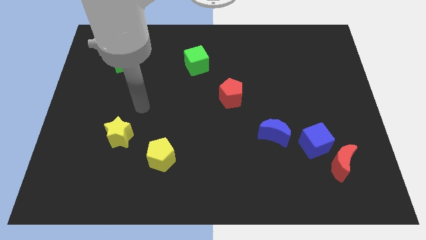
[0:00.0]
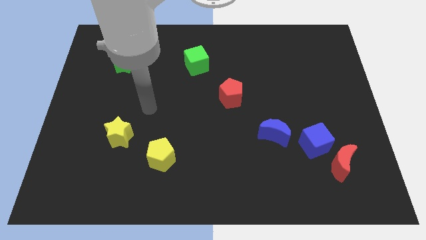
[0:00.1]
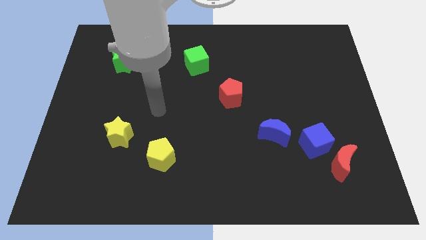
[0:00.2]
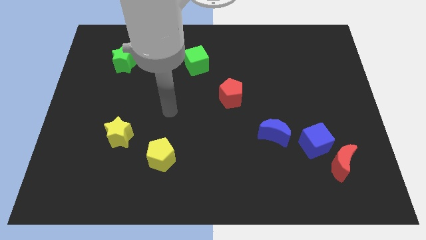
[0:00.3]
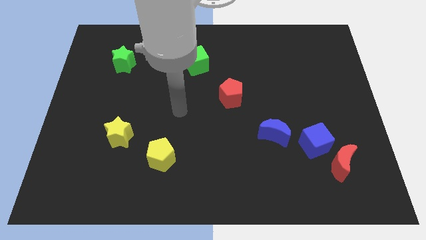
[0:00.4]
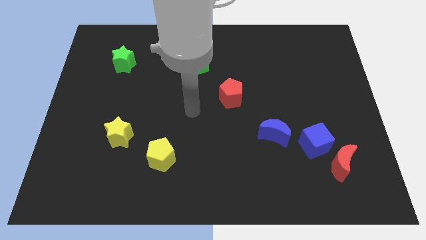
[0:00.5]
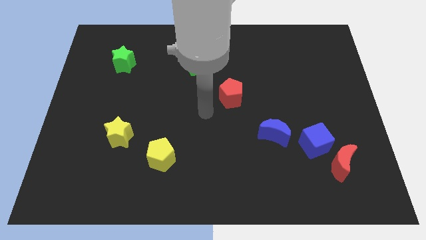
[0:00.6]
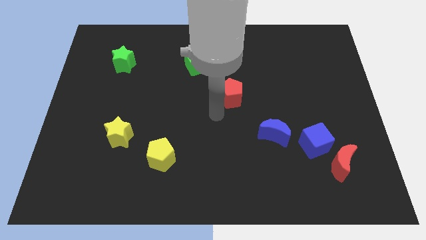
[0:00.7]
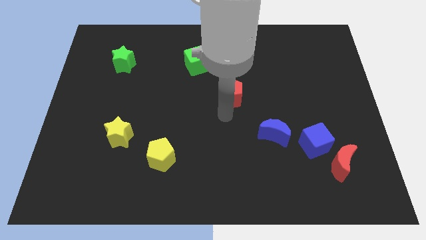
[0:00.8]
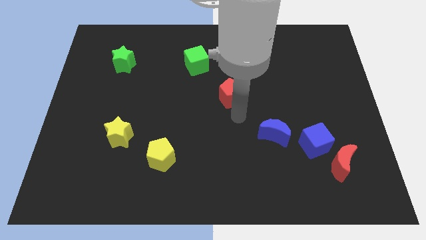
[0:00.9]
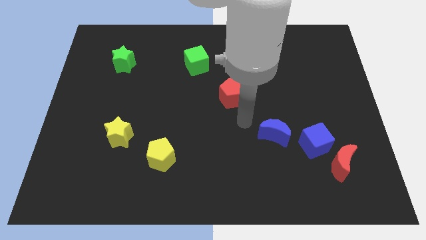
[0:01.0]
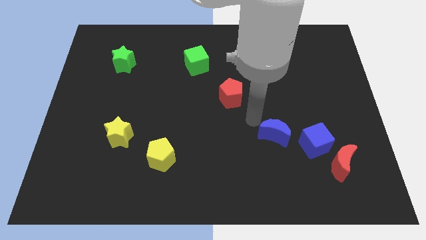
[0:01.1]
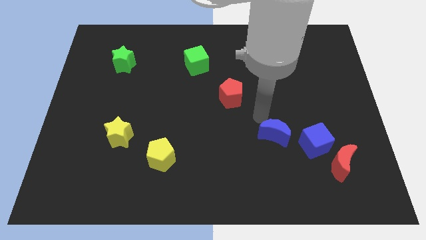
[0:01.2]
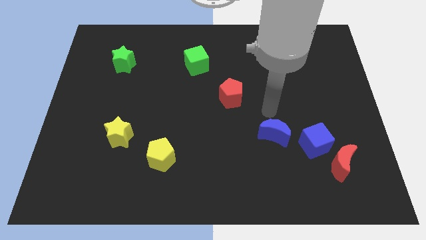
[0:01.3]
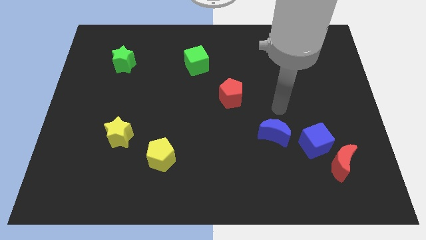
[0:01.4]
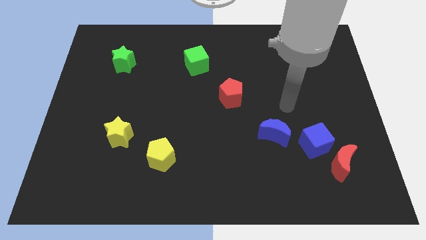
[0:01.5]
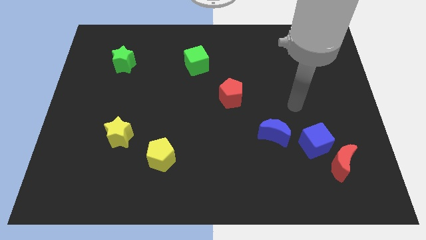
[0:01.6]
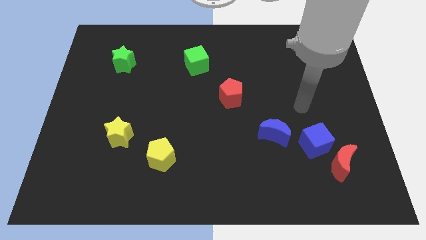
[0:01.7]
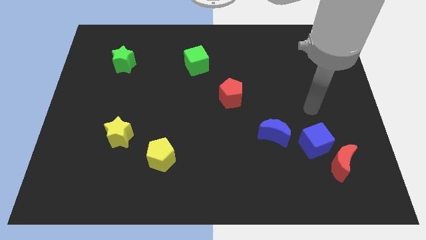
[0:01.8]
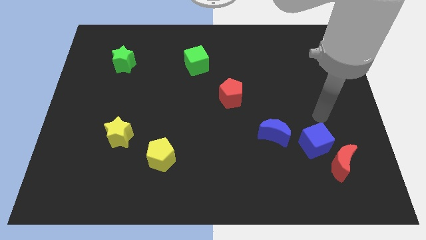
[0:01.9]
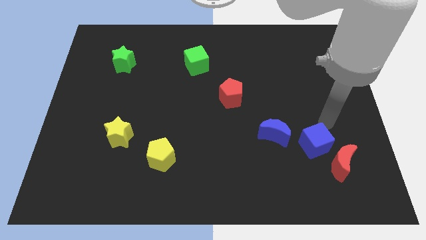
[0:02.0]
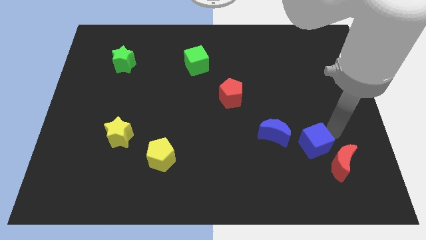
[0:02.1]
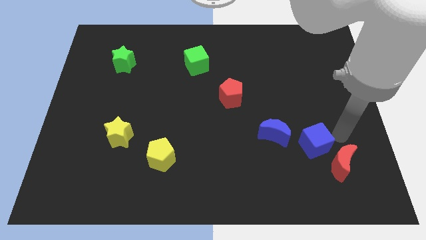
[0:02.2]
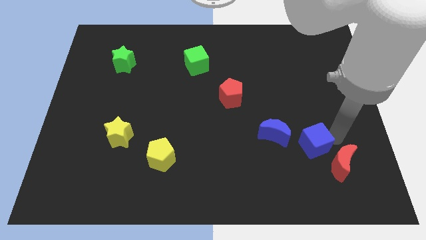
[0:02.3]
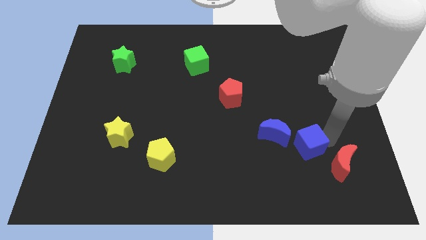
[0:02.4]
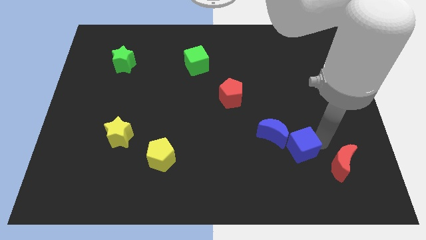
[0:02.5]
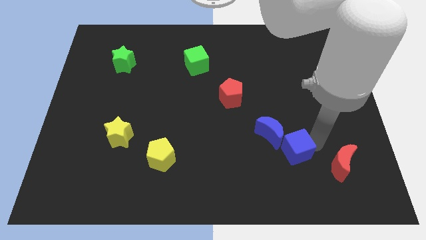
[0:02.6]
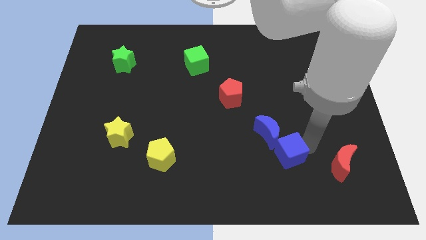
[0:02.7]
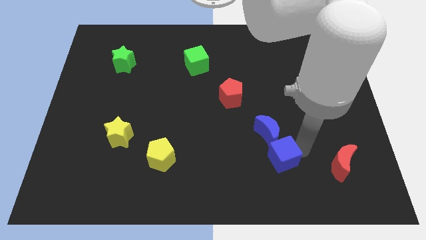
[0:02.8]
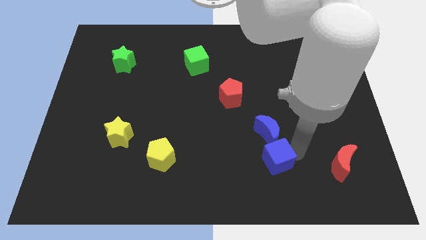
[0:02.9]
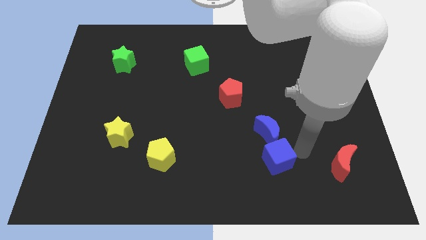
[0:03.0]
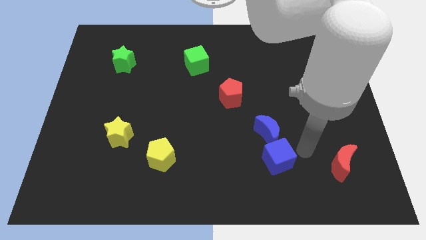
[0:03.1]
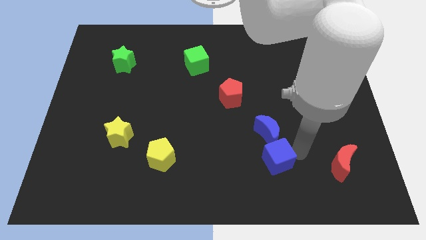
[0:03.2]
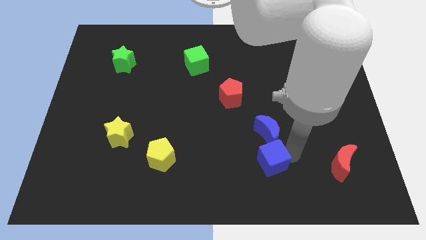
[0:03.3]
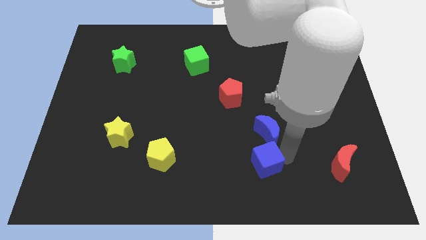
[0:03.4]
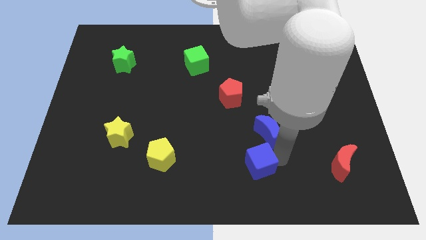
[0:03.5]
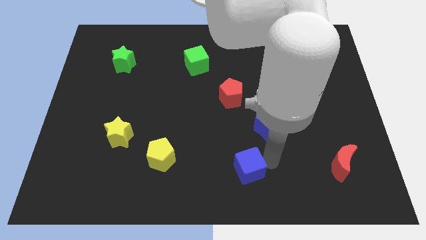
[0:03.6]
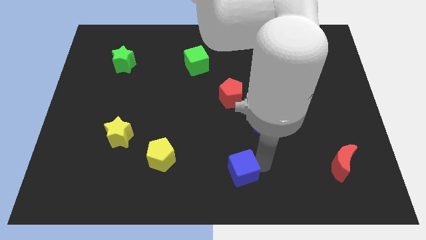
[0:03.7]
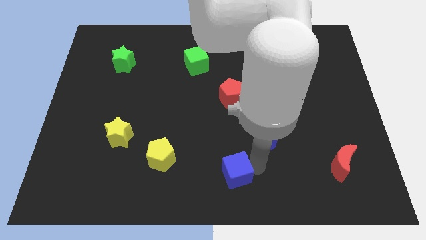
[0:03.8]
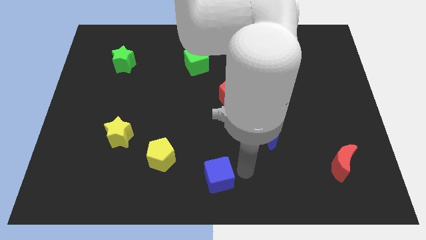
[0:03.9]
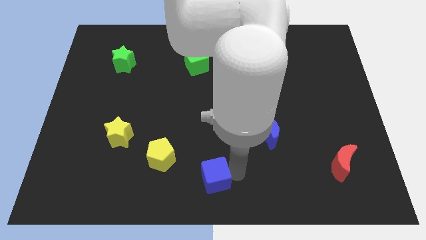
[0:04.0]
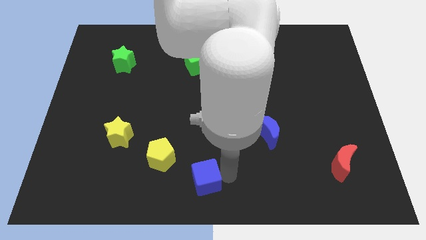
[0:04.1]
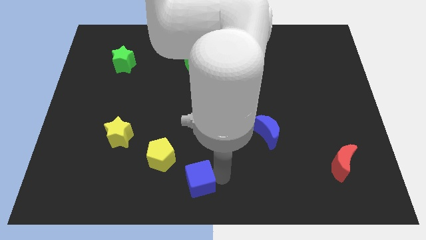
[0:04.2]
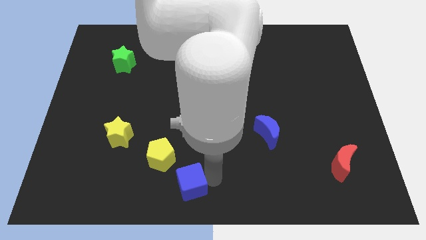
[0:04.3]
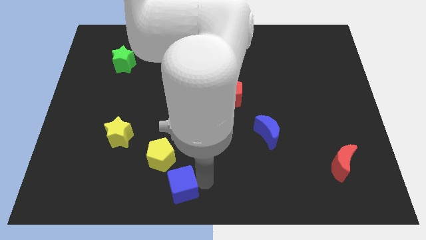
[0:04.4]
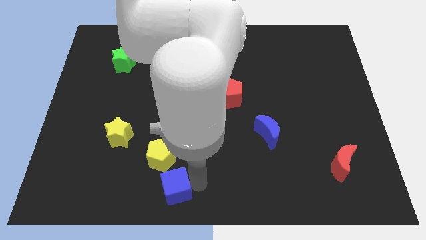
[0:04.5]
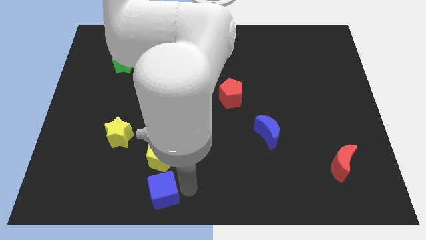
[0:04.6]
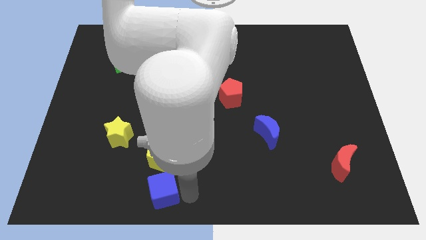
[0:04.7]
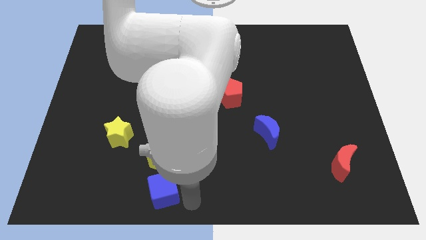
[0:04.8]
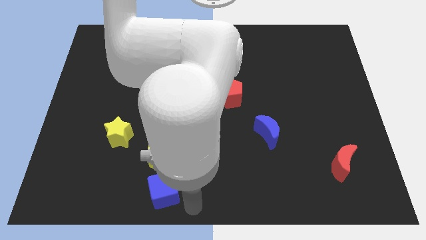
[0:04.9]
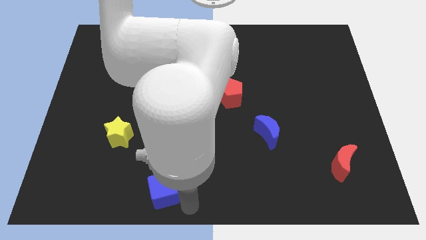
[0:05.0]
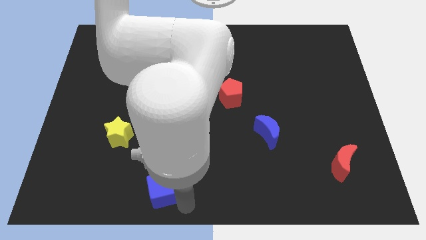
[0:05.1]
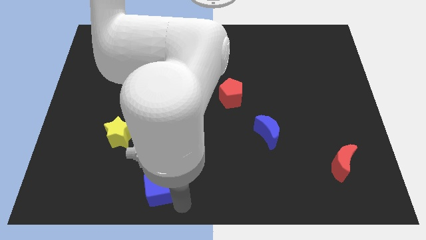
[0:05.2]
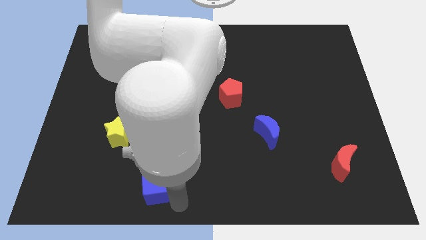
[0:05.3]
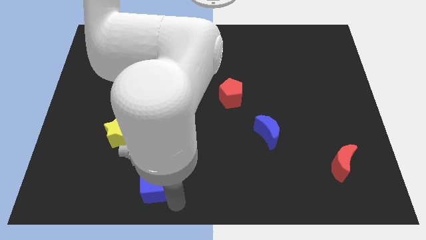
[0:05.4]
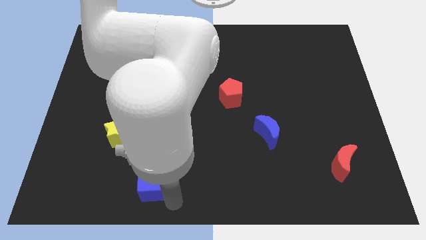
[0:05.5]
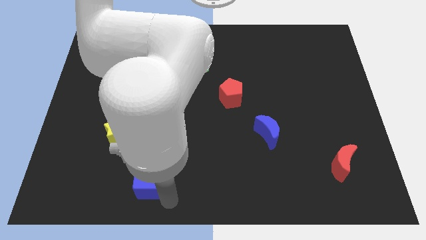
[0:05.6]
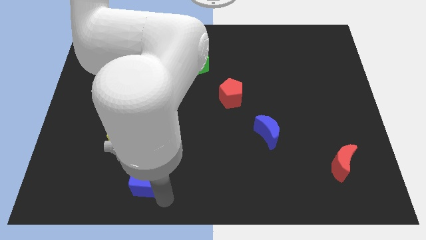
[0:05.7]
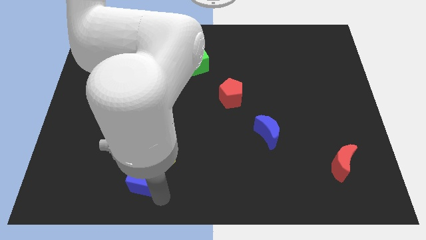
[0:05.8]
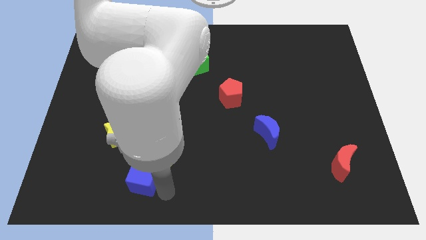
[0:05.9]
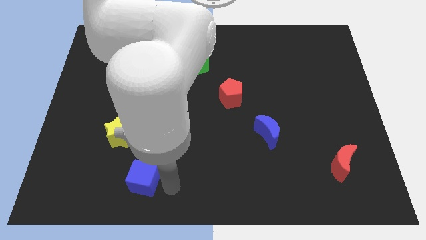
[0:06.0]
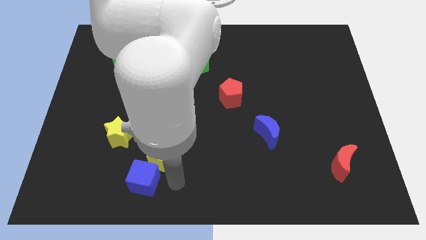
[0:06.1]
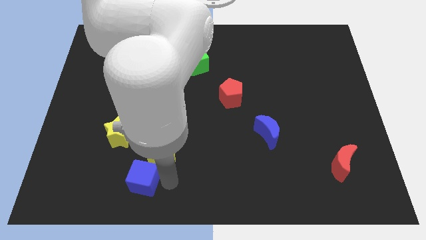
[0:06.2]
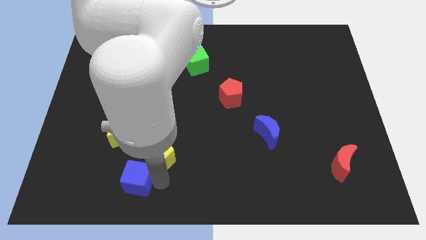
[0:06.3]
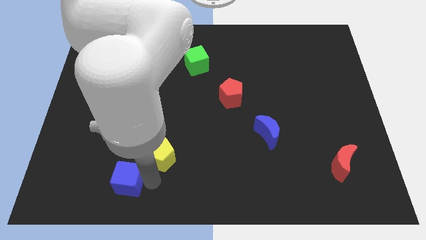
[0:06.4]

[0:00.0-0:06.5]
push the blue cube below the yellow star

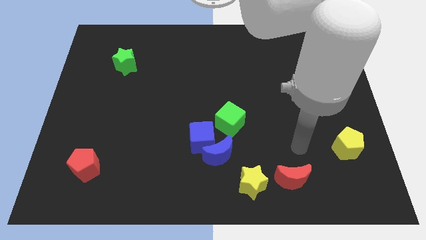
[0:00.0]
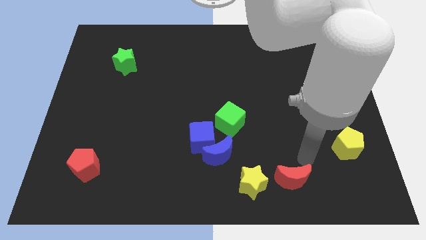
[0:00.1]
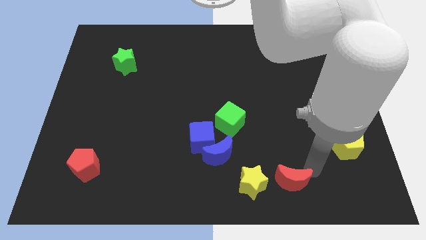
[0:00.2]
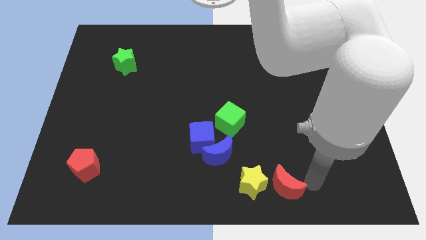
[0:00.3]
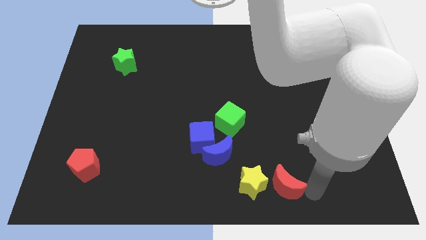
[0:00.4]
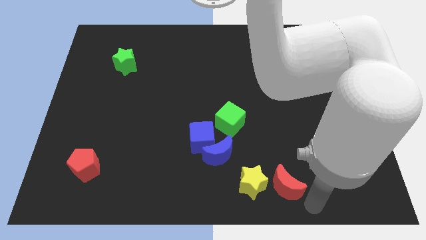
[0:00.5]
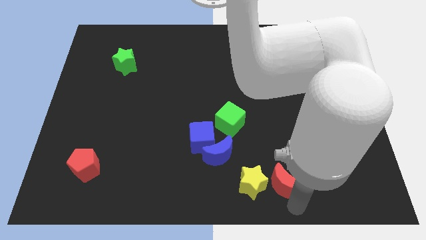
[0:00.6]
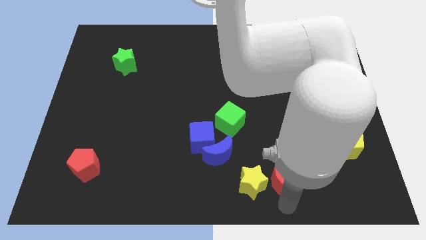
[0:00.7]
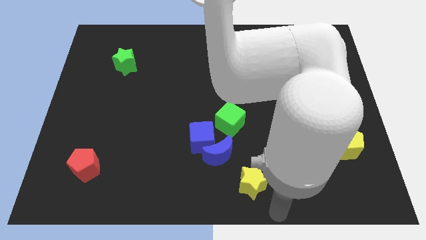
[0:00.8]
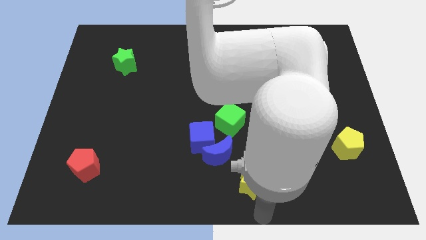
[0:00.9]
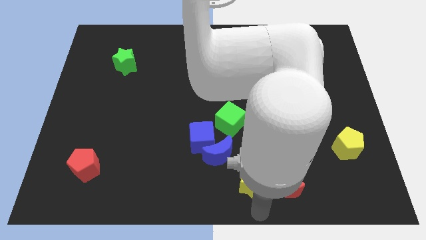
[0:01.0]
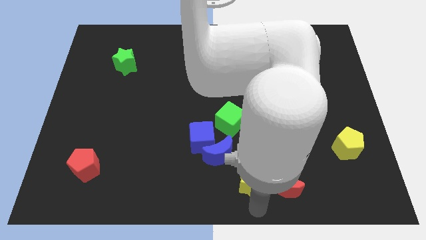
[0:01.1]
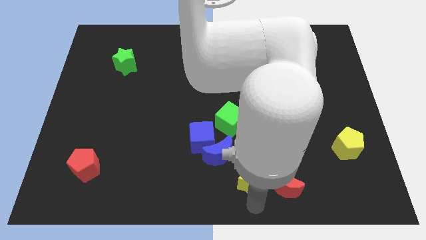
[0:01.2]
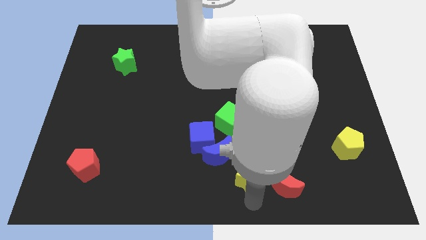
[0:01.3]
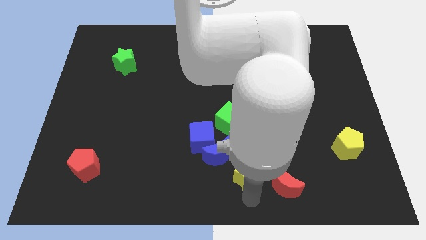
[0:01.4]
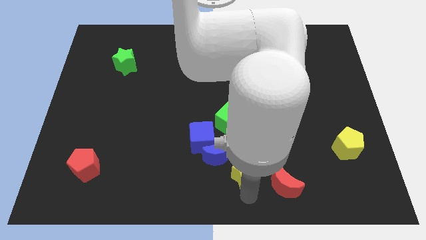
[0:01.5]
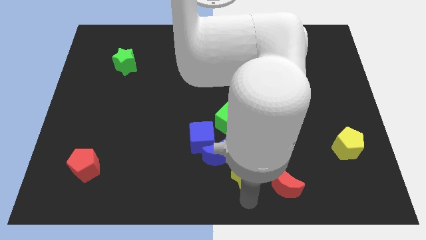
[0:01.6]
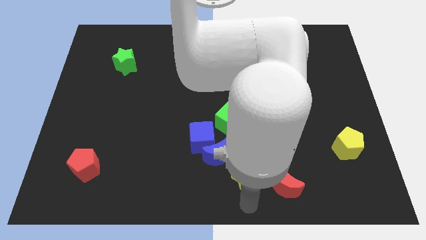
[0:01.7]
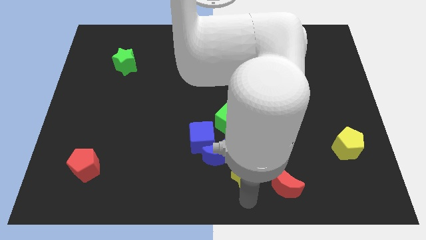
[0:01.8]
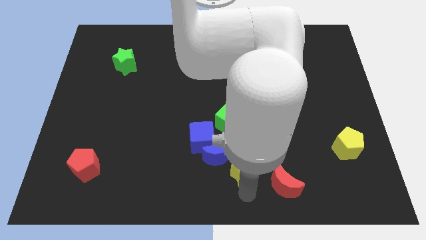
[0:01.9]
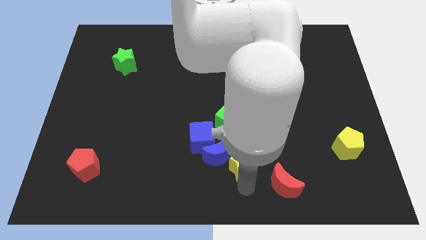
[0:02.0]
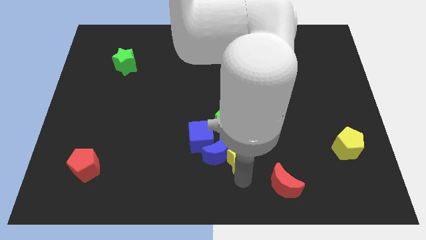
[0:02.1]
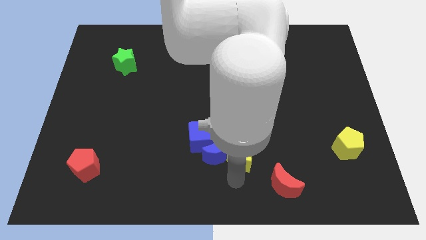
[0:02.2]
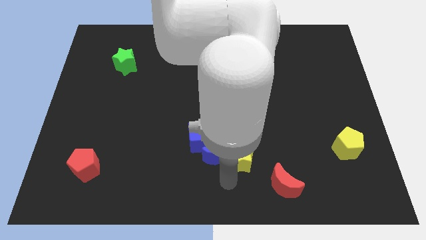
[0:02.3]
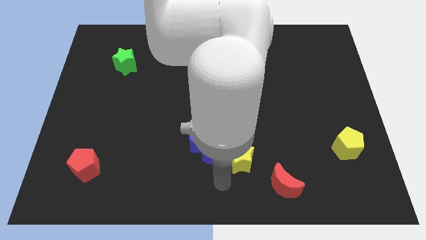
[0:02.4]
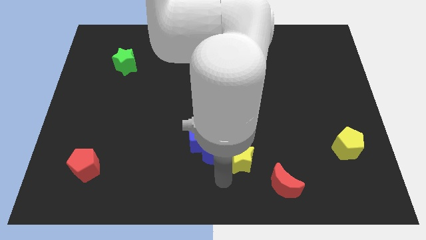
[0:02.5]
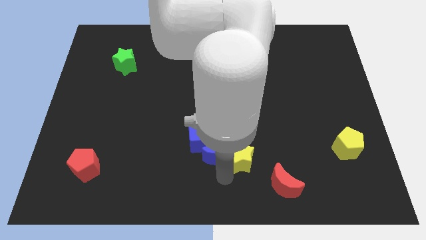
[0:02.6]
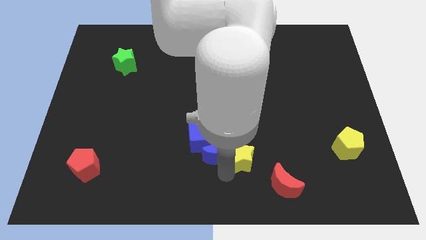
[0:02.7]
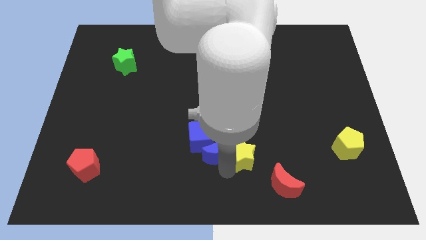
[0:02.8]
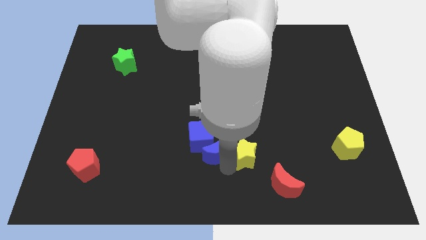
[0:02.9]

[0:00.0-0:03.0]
put the yellow star to the bottom right side of the green cube
